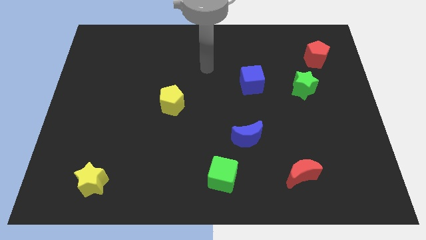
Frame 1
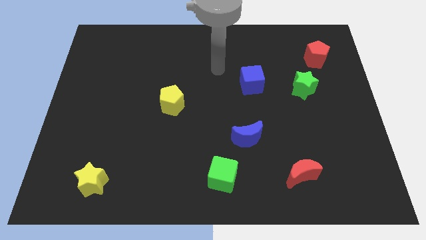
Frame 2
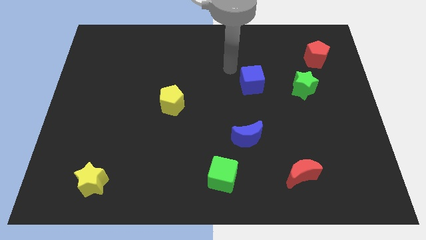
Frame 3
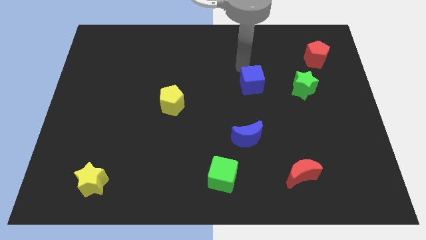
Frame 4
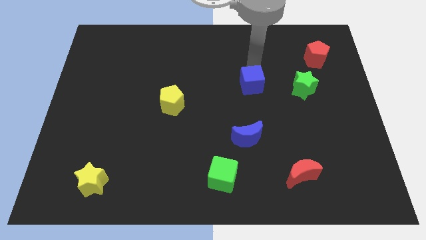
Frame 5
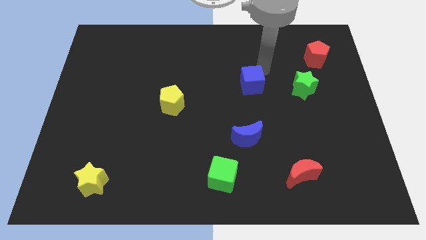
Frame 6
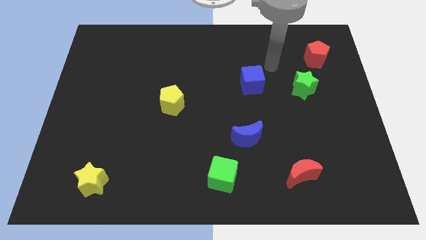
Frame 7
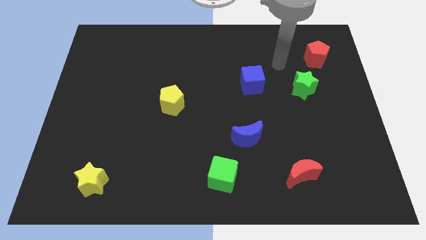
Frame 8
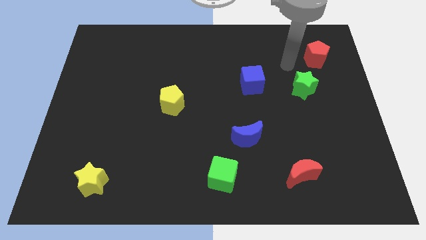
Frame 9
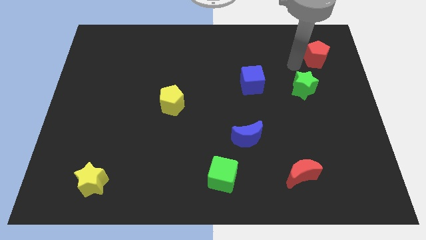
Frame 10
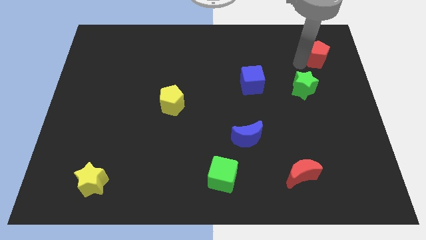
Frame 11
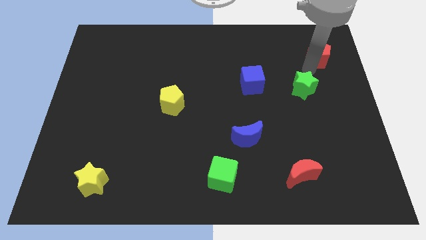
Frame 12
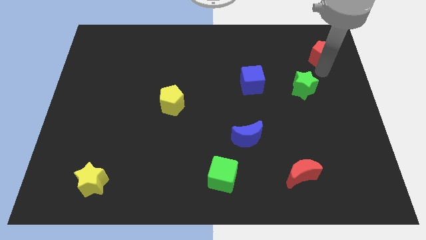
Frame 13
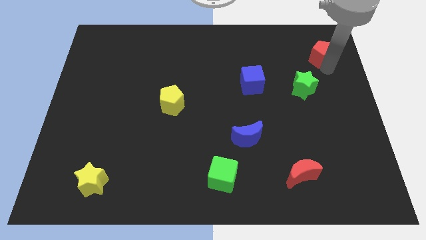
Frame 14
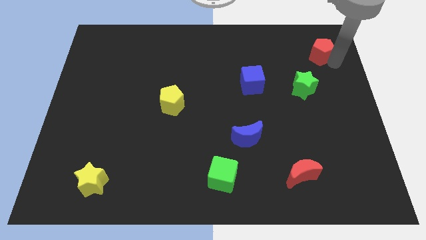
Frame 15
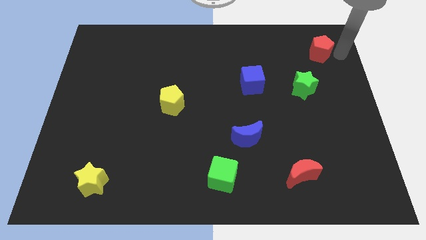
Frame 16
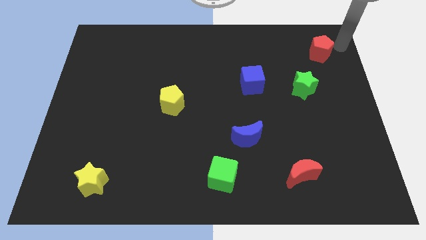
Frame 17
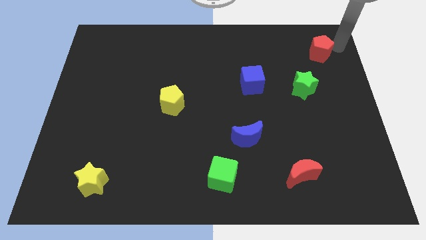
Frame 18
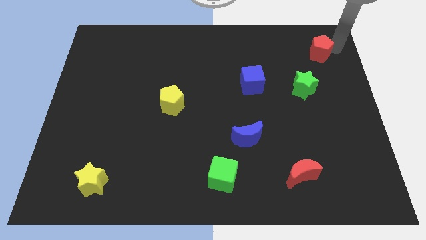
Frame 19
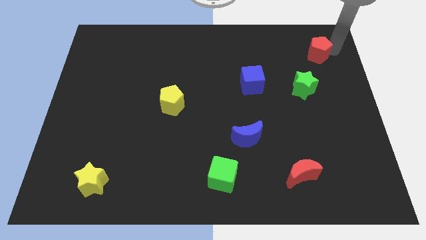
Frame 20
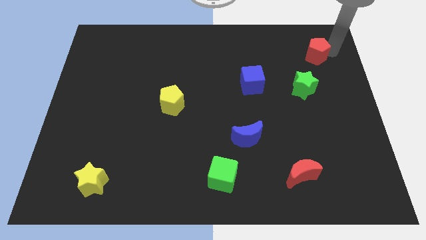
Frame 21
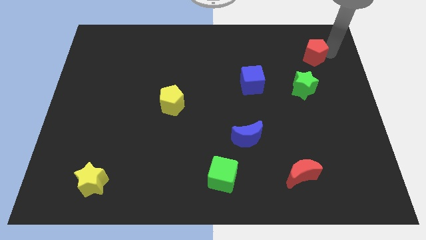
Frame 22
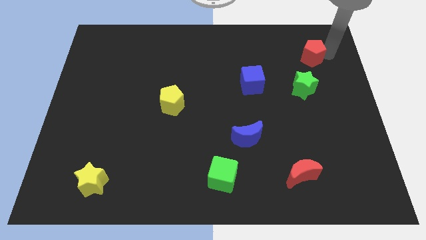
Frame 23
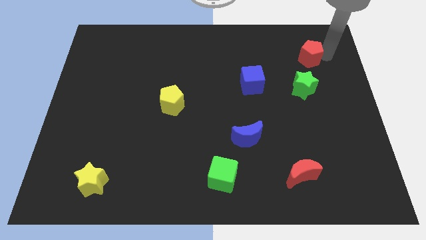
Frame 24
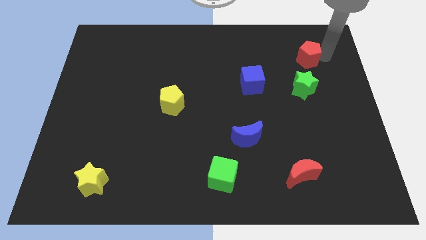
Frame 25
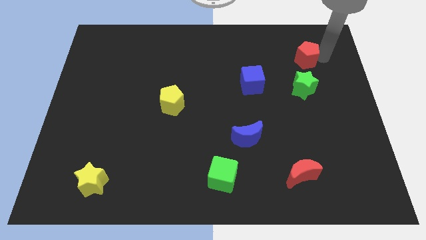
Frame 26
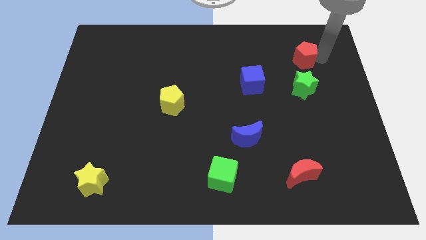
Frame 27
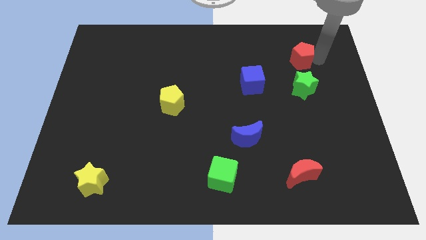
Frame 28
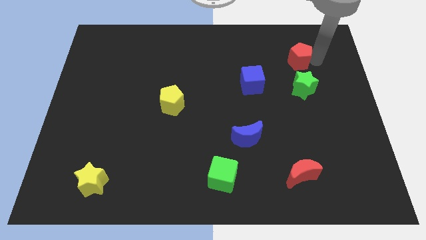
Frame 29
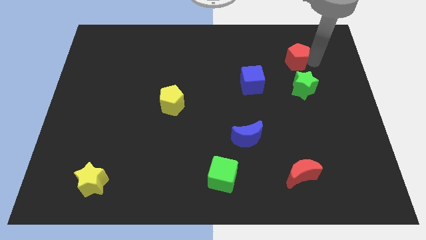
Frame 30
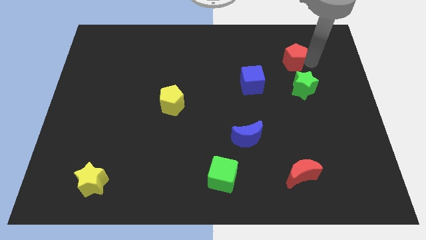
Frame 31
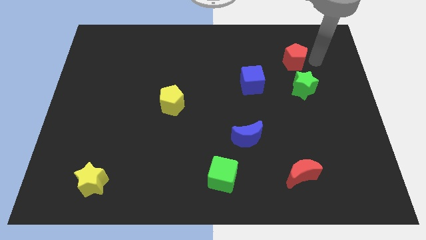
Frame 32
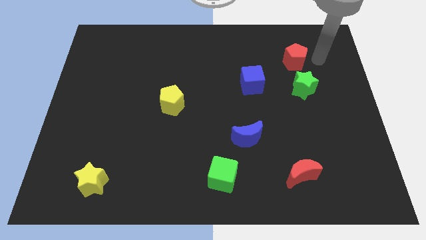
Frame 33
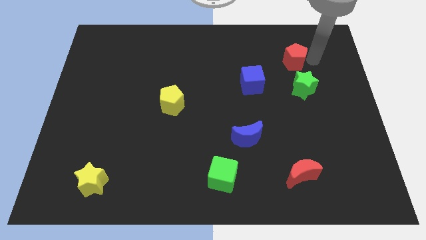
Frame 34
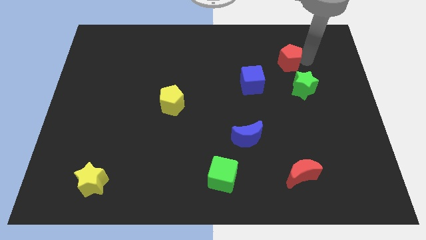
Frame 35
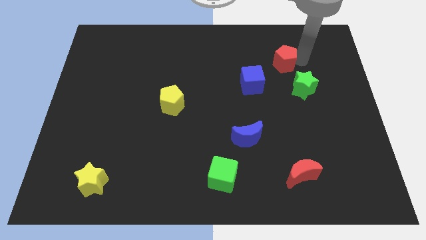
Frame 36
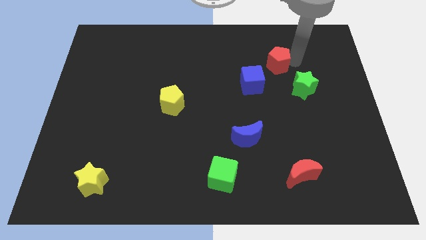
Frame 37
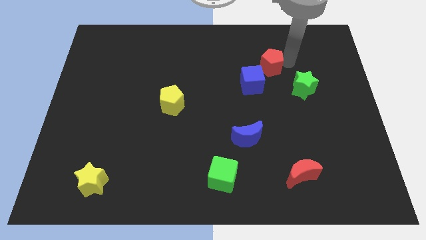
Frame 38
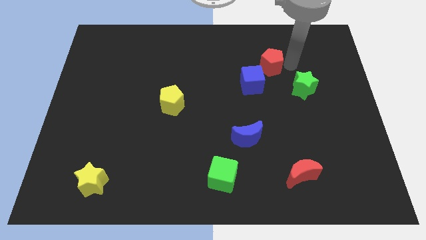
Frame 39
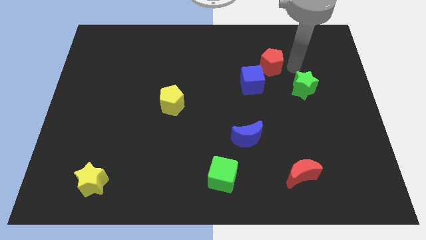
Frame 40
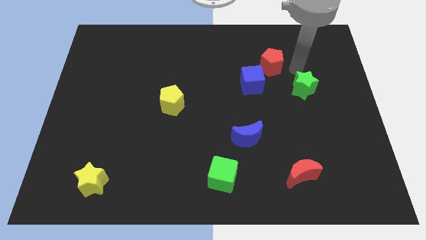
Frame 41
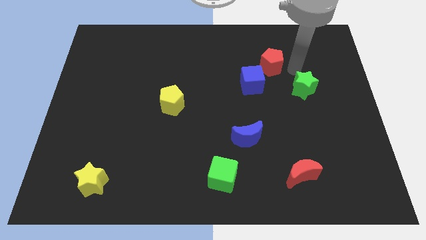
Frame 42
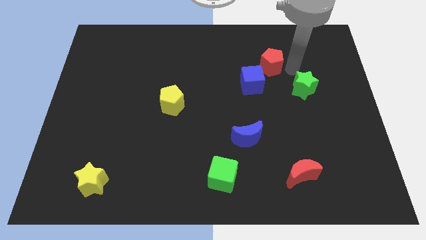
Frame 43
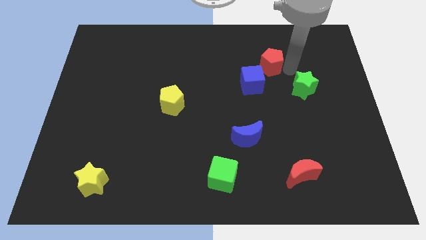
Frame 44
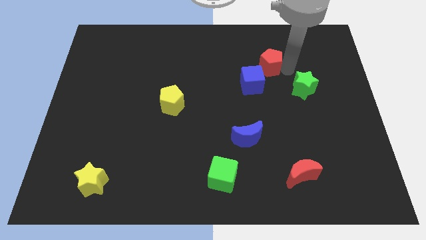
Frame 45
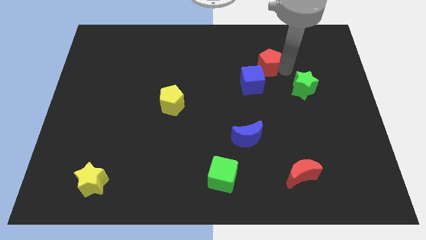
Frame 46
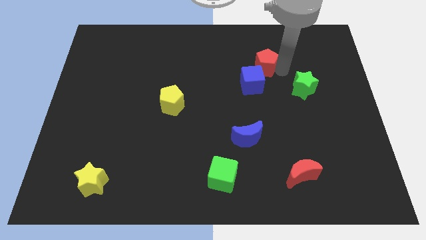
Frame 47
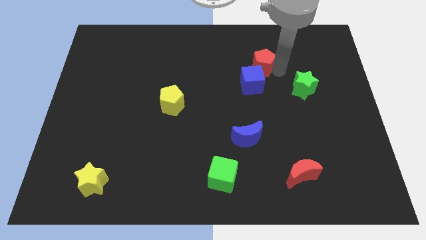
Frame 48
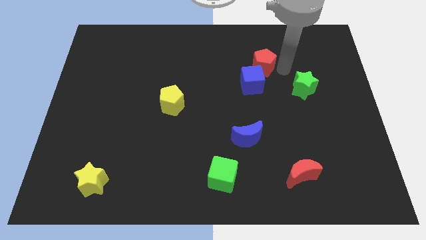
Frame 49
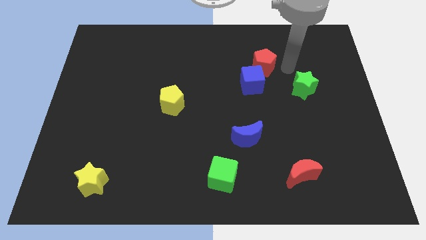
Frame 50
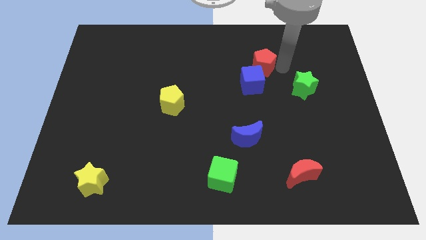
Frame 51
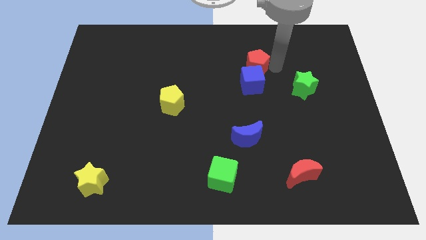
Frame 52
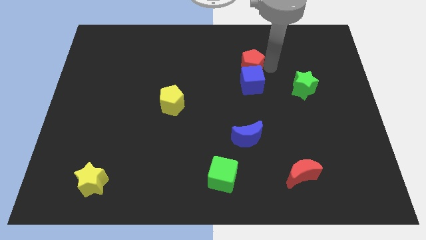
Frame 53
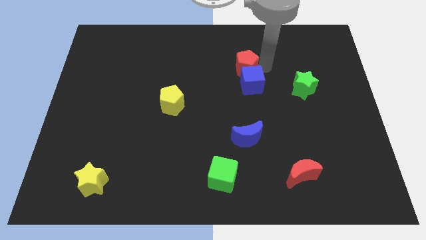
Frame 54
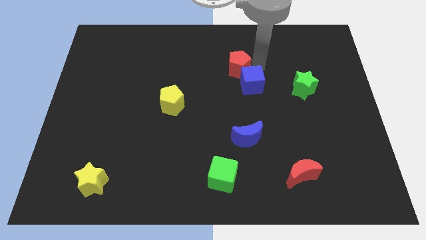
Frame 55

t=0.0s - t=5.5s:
slide the red pentagon left

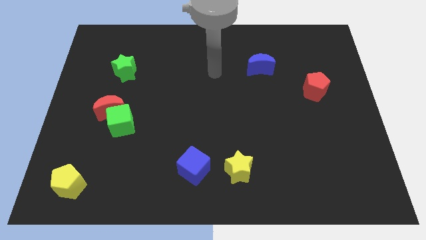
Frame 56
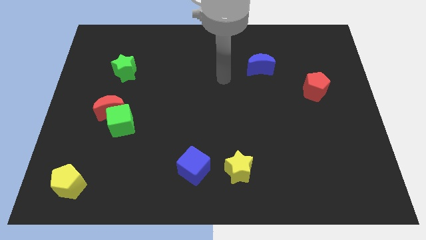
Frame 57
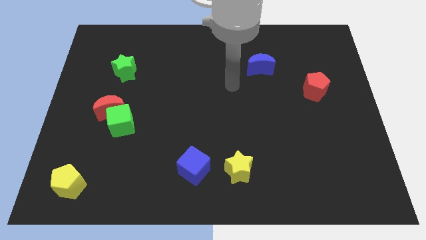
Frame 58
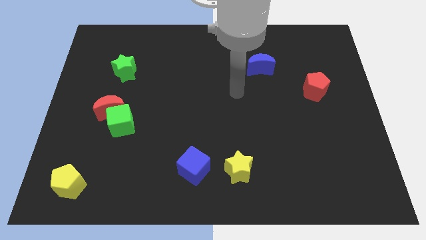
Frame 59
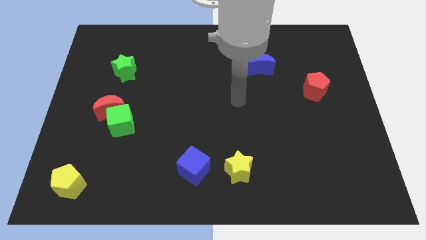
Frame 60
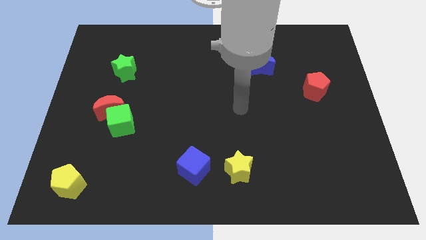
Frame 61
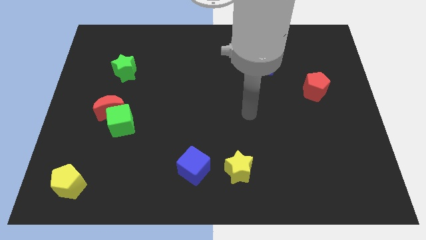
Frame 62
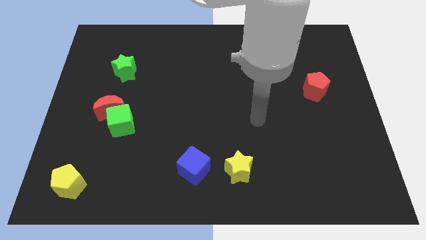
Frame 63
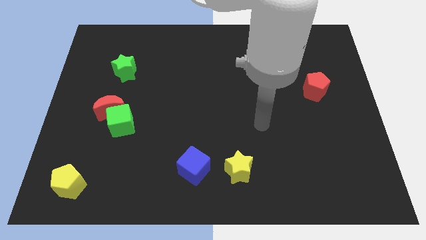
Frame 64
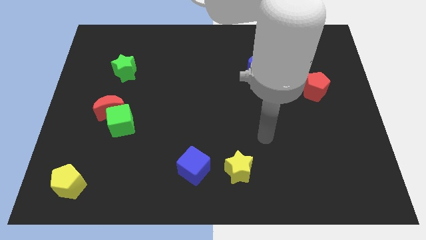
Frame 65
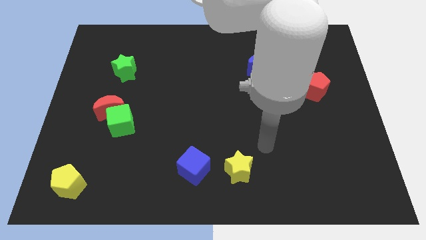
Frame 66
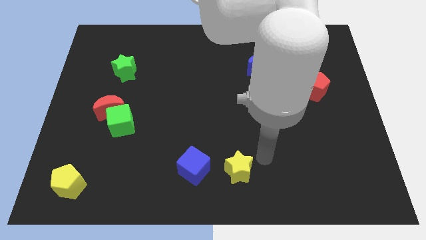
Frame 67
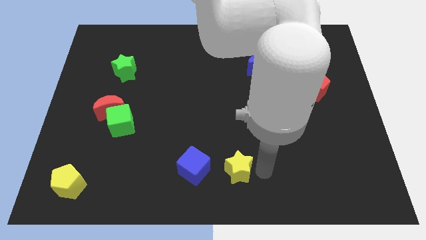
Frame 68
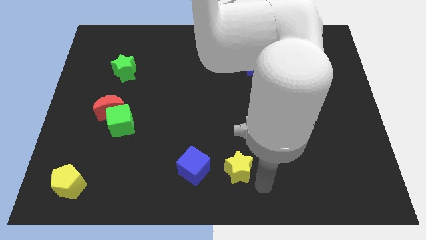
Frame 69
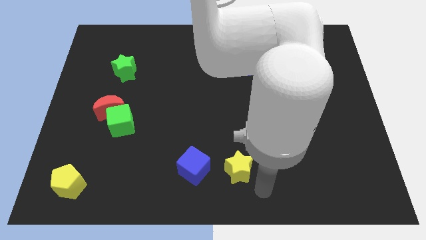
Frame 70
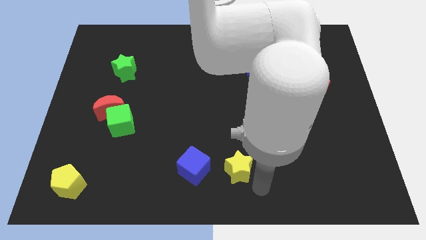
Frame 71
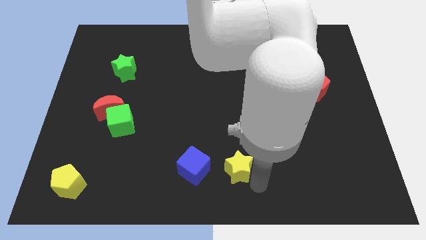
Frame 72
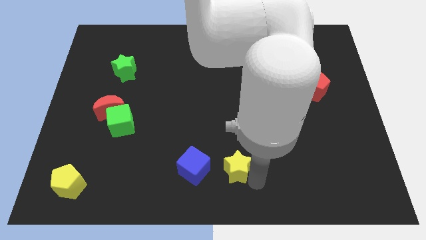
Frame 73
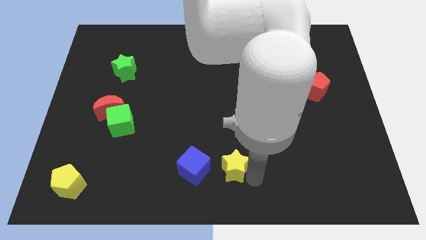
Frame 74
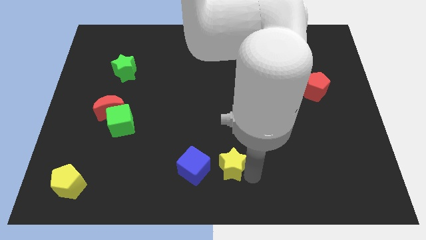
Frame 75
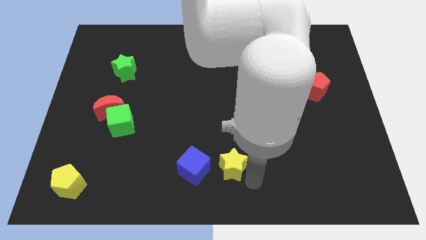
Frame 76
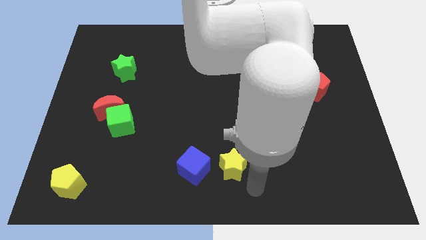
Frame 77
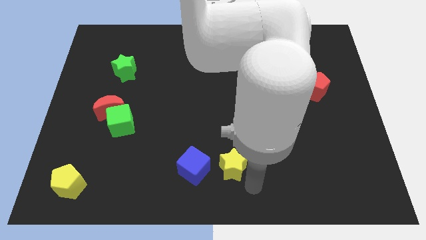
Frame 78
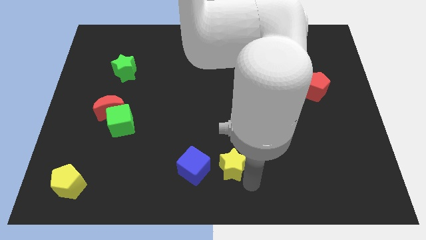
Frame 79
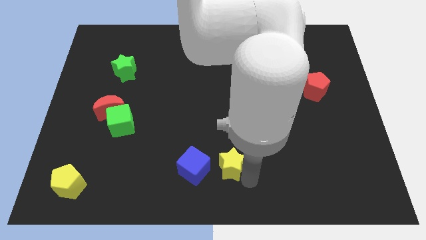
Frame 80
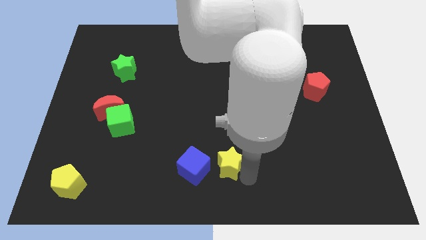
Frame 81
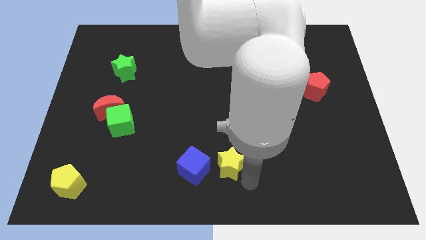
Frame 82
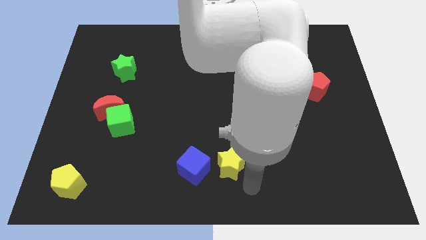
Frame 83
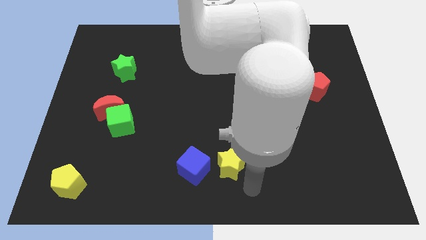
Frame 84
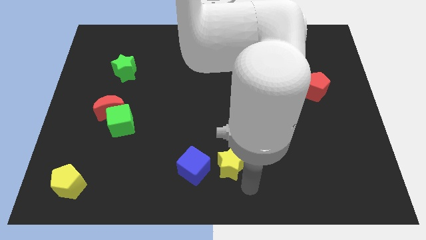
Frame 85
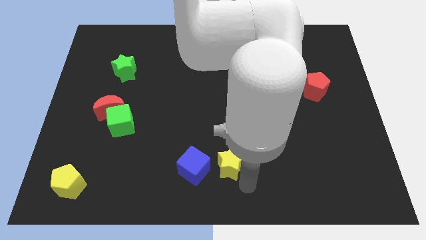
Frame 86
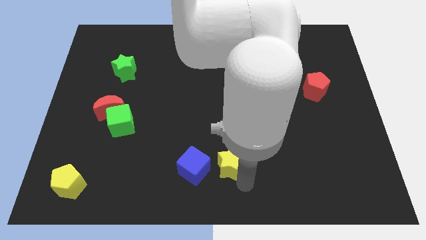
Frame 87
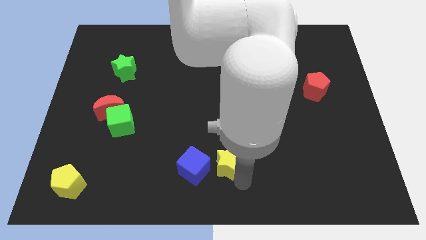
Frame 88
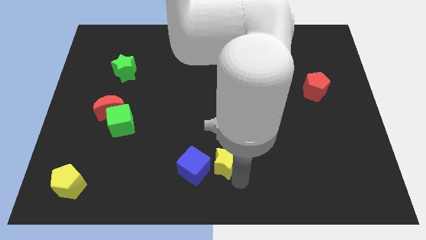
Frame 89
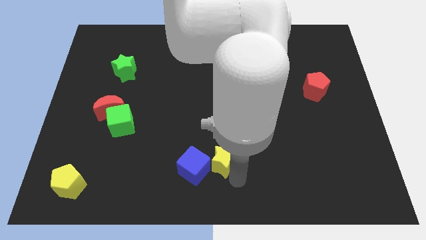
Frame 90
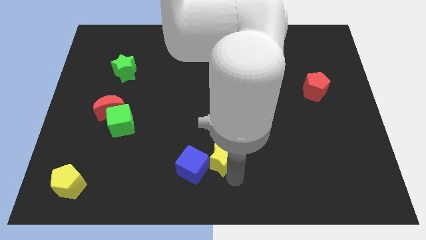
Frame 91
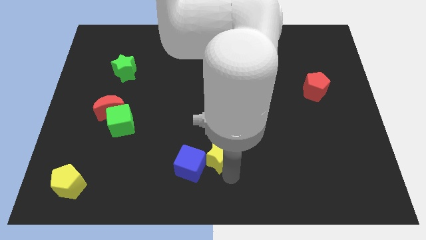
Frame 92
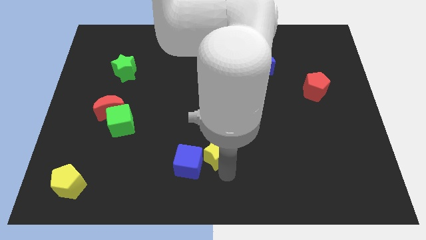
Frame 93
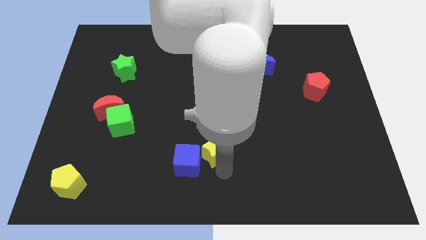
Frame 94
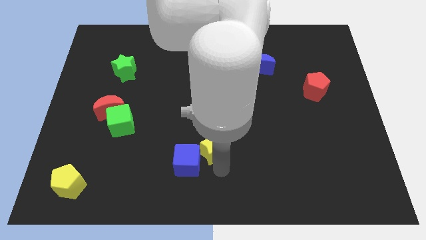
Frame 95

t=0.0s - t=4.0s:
push the yellow star a bit diagonally up and left
